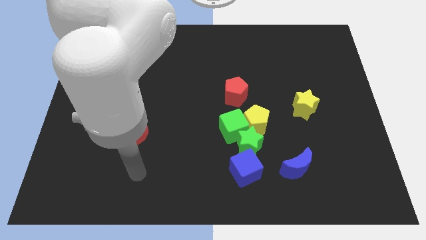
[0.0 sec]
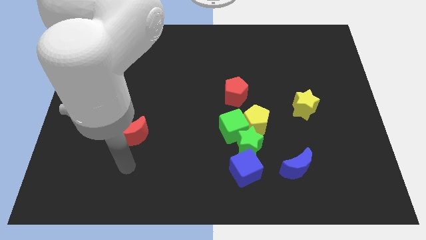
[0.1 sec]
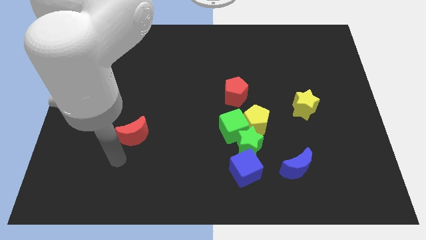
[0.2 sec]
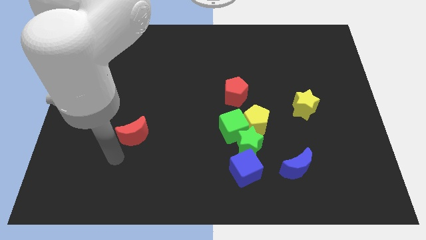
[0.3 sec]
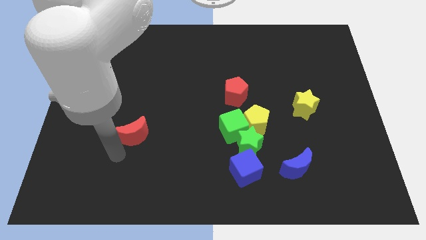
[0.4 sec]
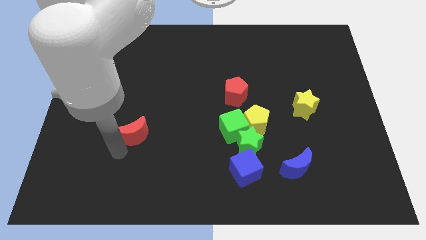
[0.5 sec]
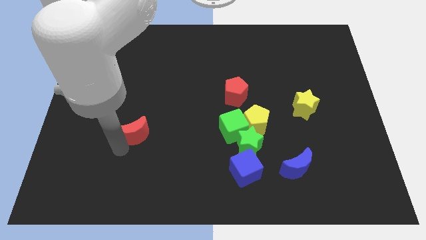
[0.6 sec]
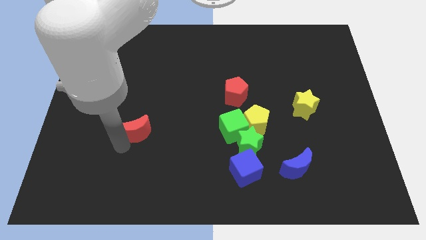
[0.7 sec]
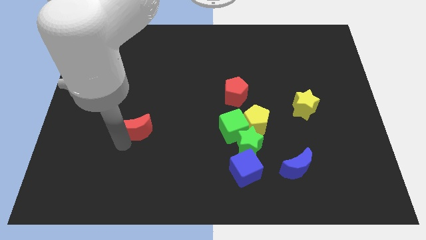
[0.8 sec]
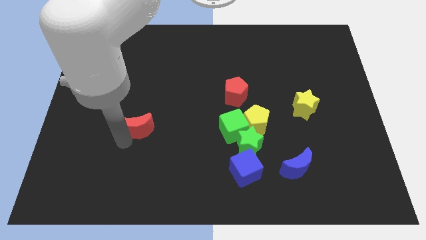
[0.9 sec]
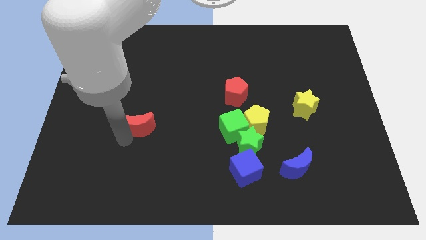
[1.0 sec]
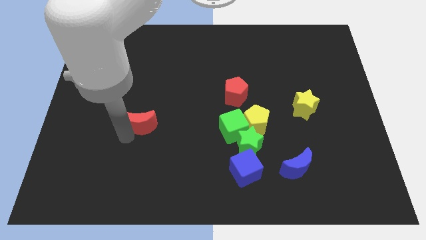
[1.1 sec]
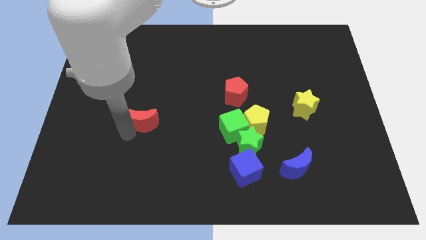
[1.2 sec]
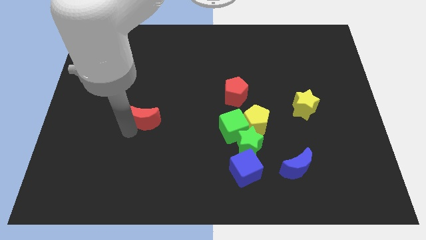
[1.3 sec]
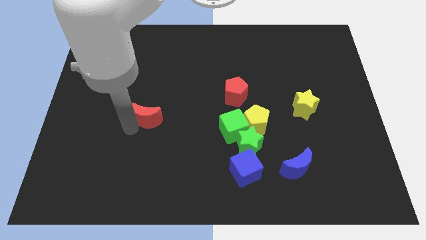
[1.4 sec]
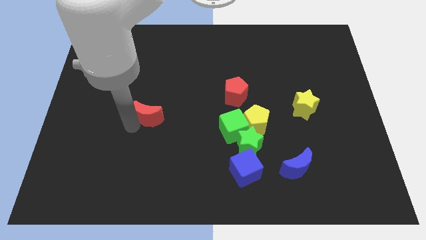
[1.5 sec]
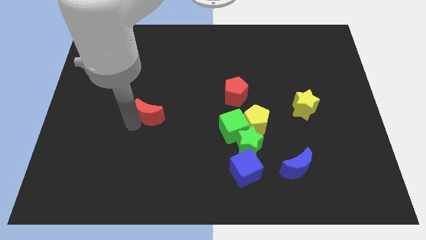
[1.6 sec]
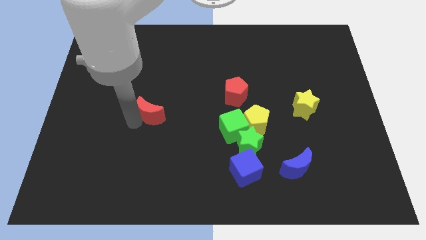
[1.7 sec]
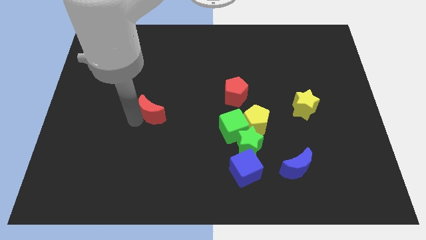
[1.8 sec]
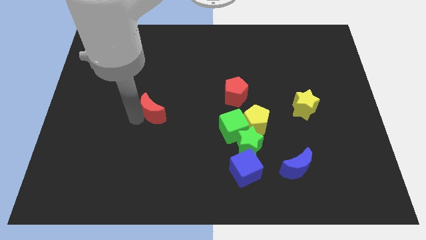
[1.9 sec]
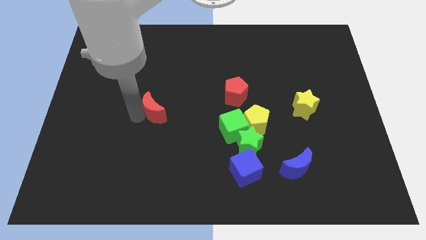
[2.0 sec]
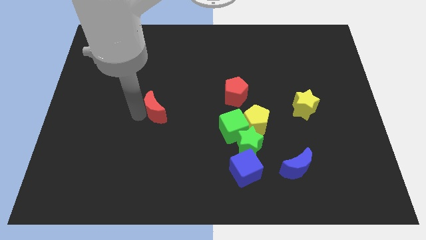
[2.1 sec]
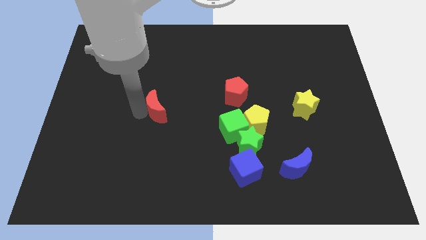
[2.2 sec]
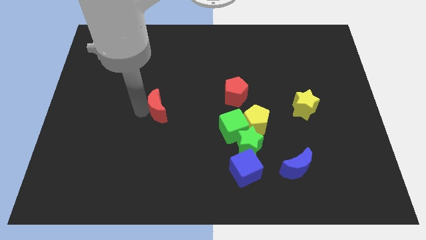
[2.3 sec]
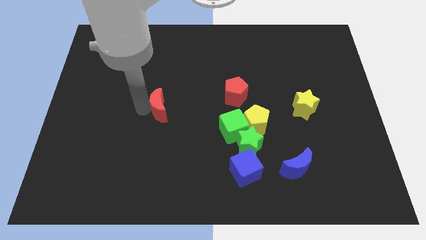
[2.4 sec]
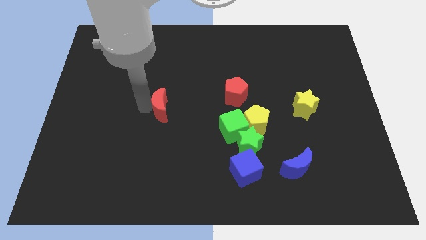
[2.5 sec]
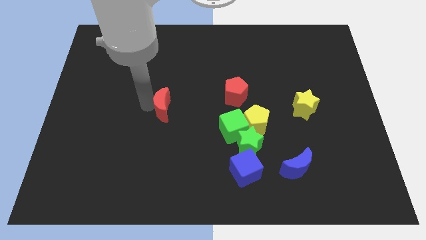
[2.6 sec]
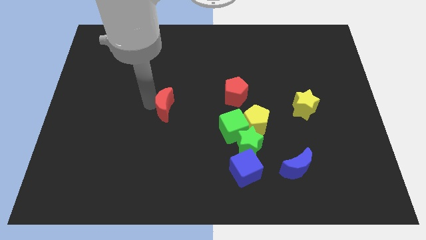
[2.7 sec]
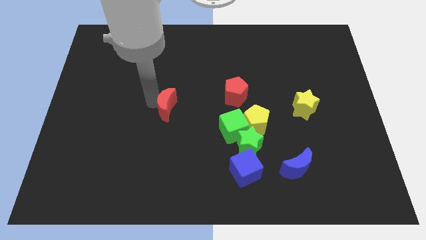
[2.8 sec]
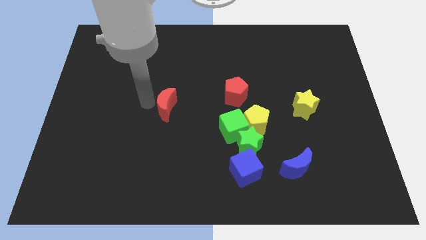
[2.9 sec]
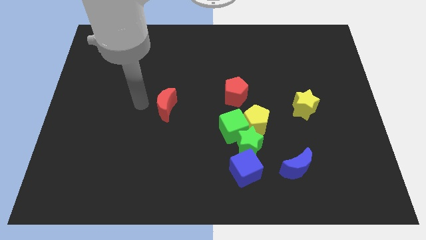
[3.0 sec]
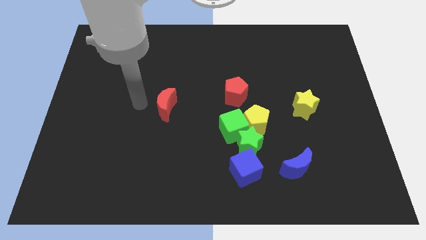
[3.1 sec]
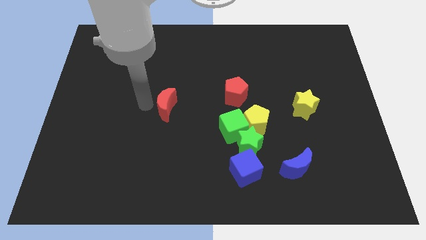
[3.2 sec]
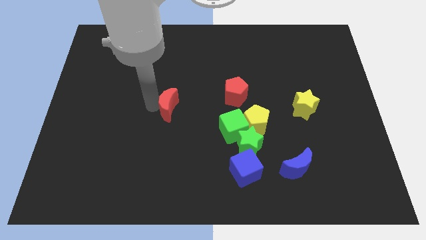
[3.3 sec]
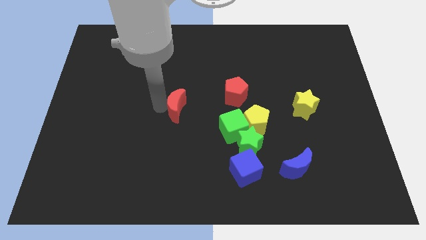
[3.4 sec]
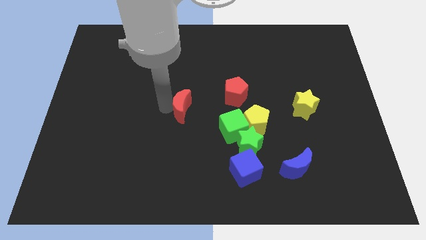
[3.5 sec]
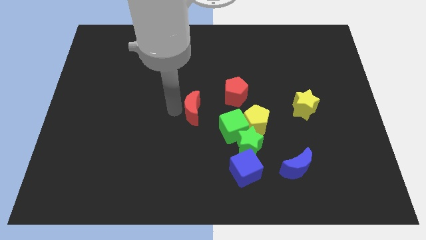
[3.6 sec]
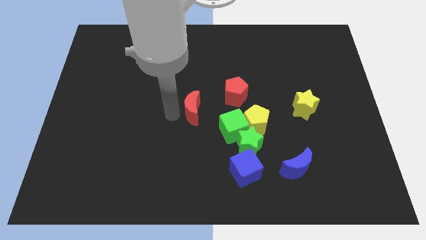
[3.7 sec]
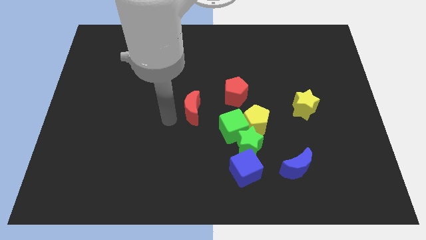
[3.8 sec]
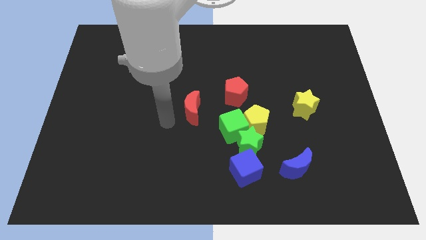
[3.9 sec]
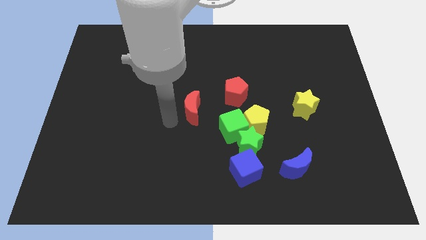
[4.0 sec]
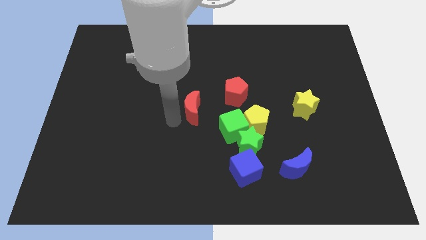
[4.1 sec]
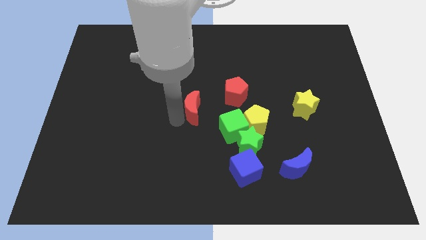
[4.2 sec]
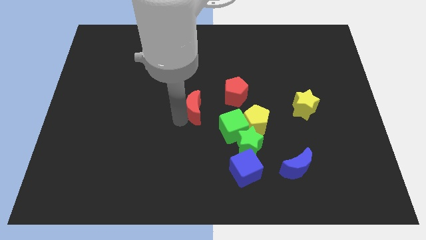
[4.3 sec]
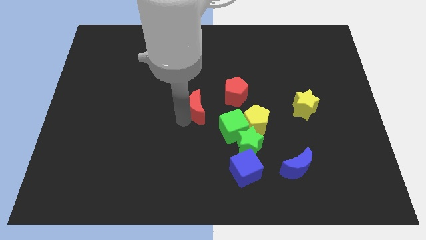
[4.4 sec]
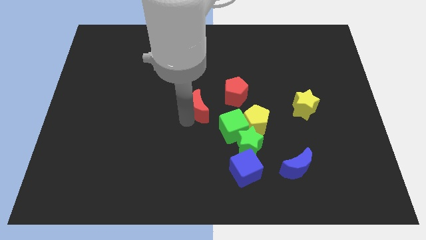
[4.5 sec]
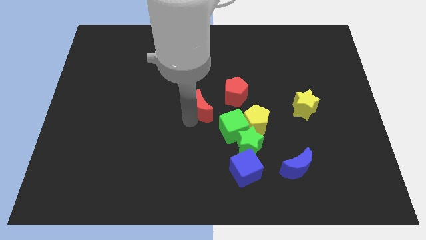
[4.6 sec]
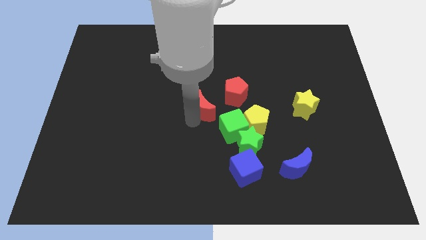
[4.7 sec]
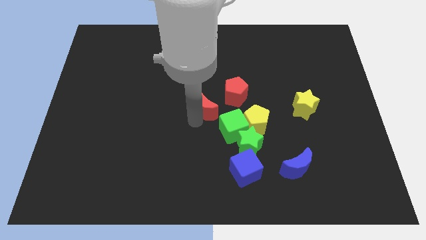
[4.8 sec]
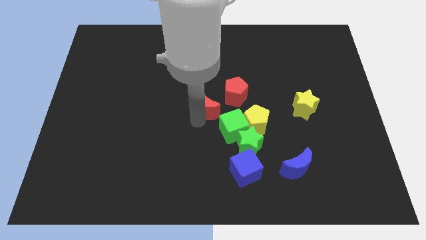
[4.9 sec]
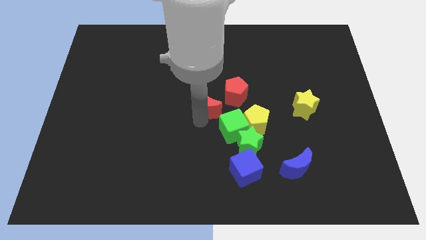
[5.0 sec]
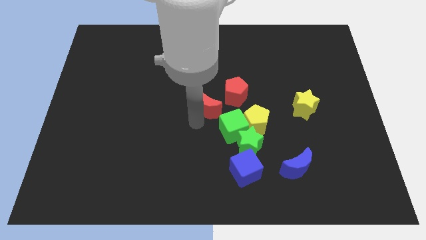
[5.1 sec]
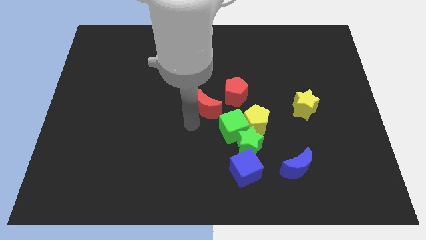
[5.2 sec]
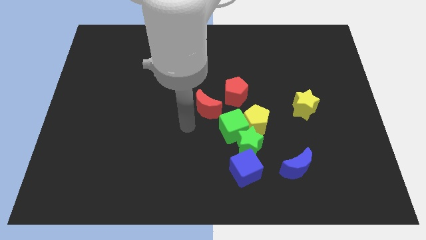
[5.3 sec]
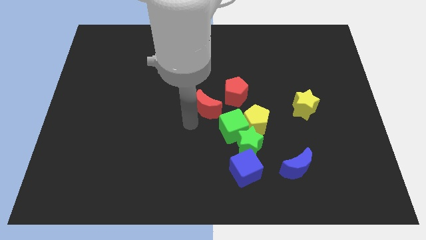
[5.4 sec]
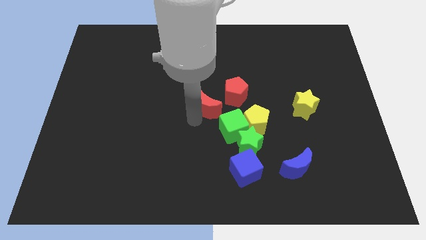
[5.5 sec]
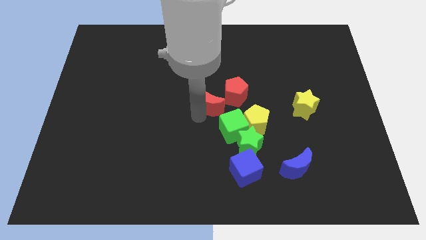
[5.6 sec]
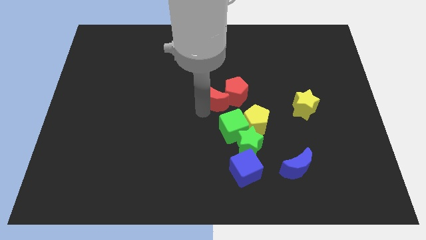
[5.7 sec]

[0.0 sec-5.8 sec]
slide the red moon towards the red pentagon

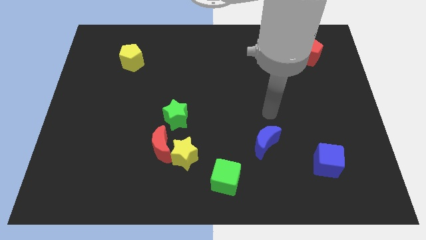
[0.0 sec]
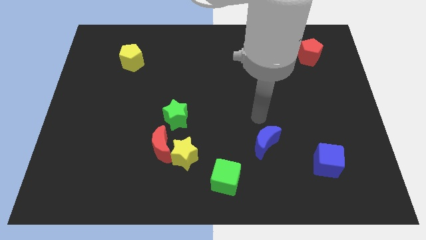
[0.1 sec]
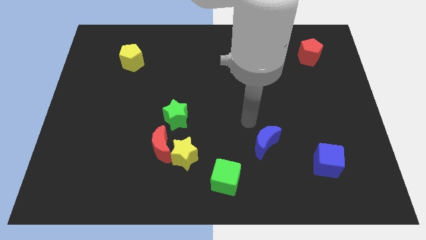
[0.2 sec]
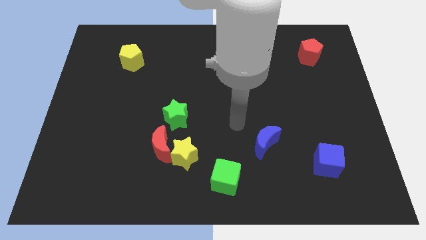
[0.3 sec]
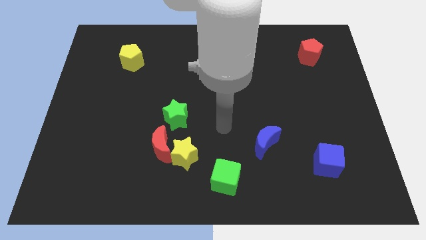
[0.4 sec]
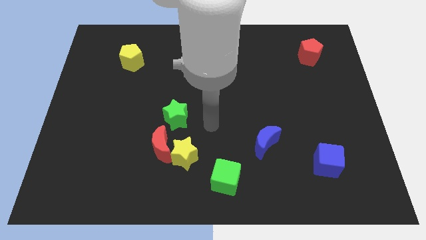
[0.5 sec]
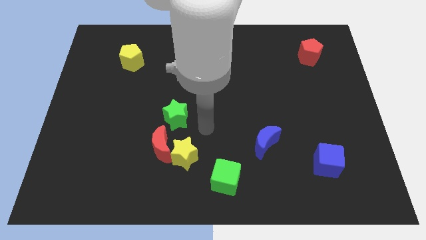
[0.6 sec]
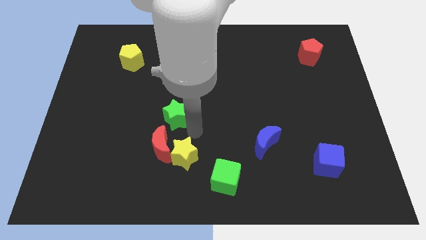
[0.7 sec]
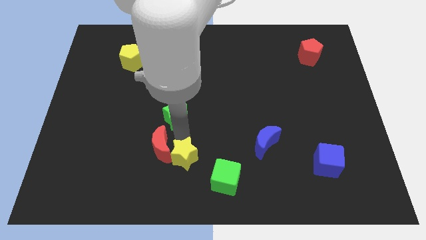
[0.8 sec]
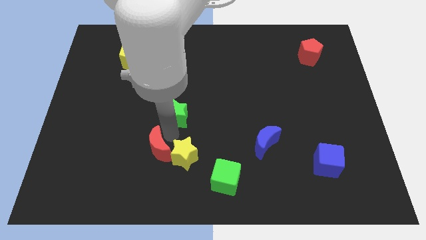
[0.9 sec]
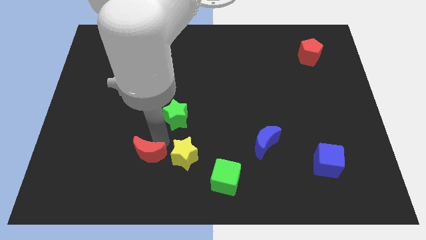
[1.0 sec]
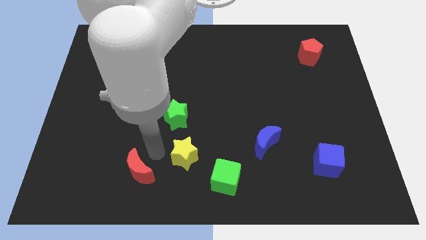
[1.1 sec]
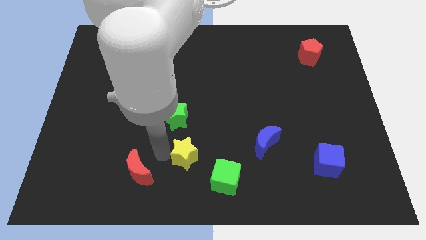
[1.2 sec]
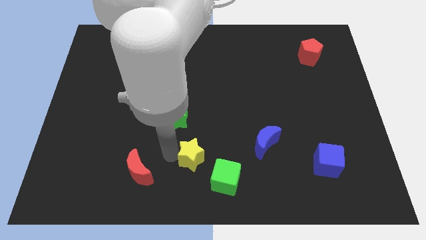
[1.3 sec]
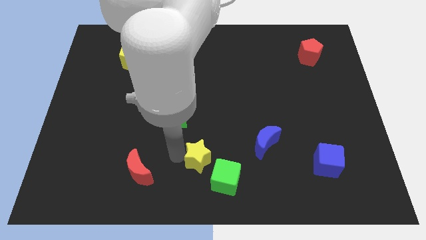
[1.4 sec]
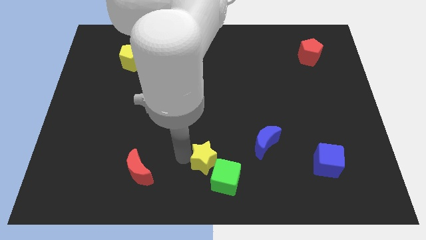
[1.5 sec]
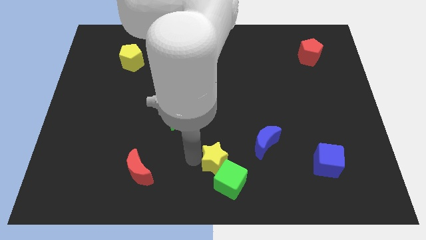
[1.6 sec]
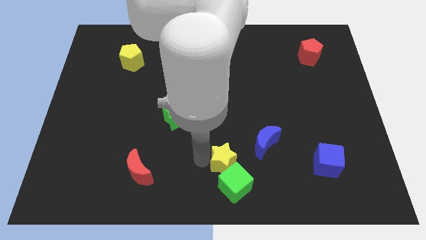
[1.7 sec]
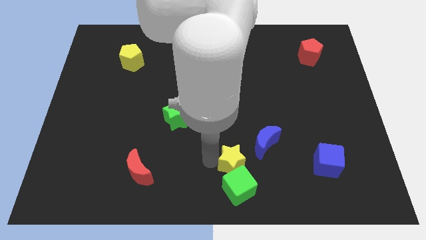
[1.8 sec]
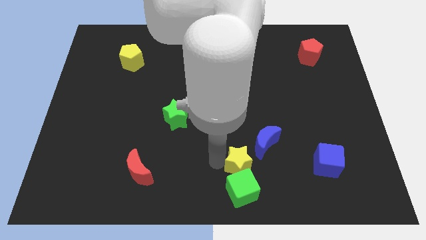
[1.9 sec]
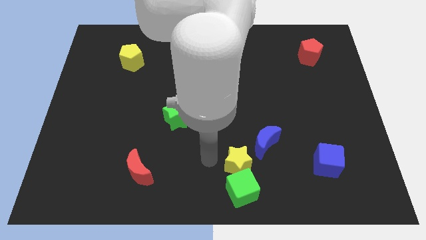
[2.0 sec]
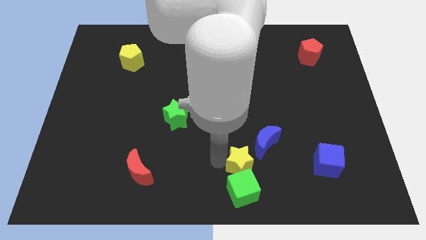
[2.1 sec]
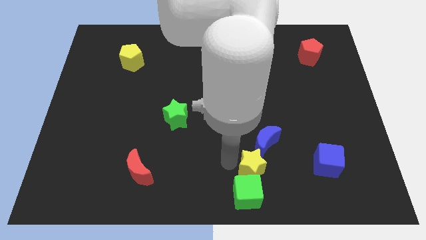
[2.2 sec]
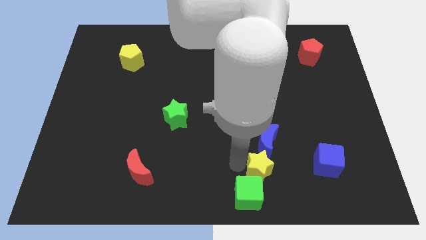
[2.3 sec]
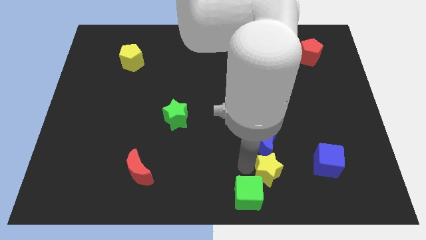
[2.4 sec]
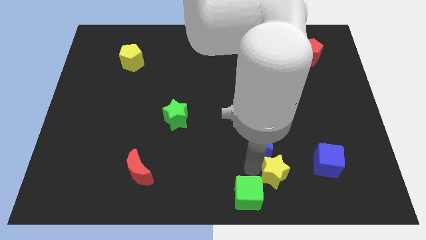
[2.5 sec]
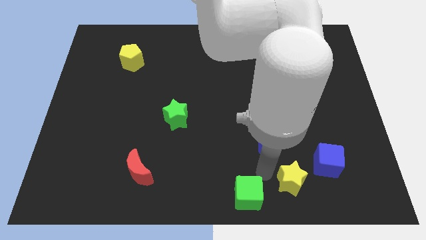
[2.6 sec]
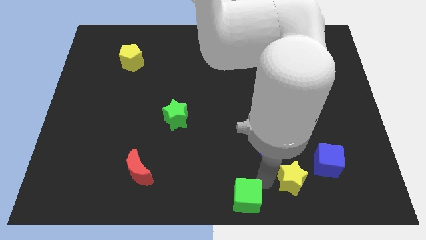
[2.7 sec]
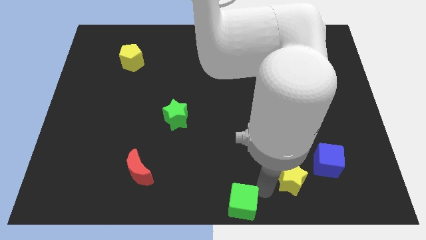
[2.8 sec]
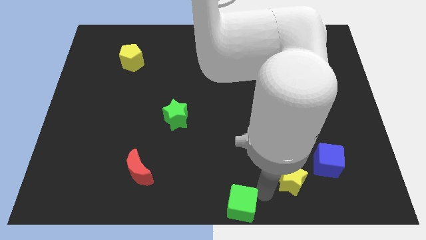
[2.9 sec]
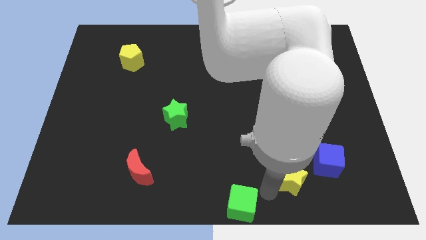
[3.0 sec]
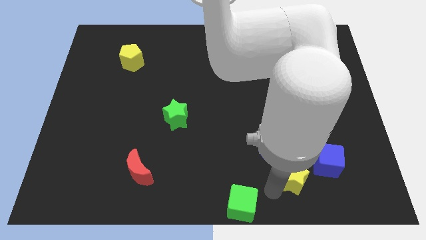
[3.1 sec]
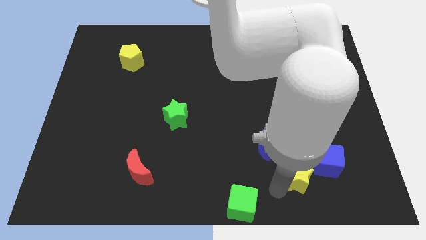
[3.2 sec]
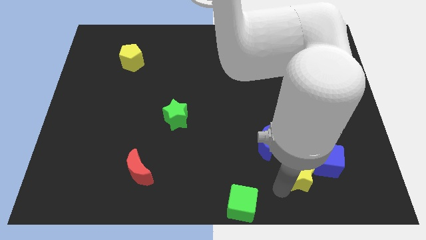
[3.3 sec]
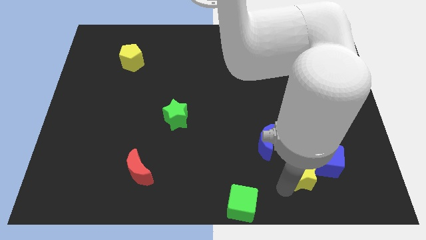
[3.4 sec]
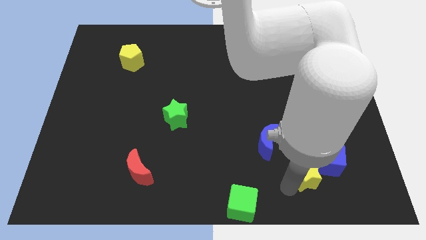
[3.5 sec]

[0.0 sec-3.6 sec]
put the yellow star to the blue cube
